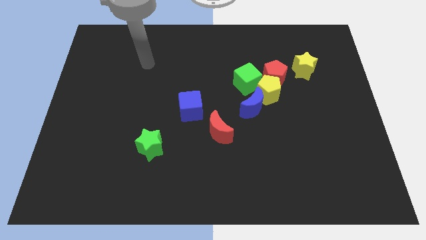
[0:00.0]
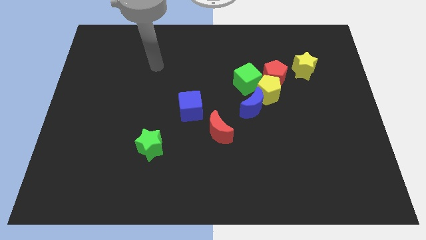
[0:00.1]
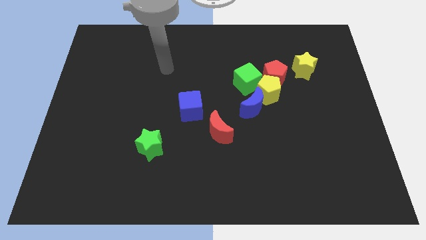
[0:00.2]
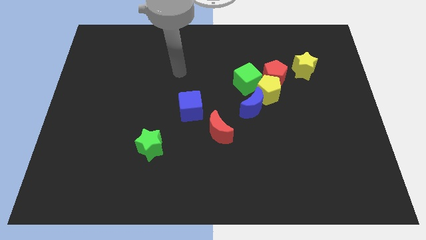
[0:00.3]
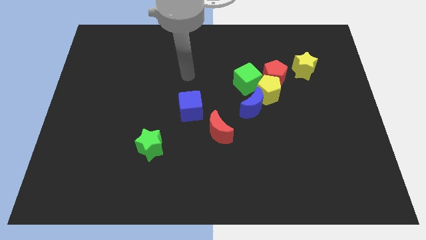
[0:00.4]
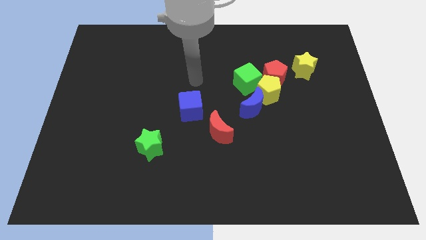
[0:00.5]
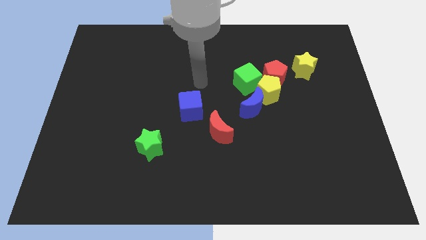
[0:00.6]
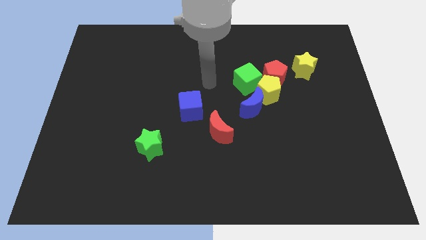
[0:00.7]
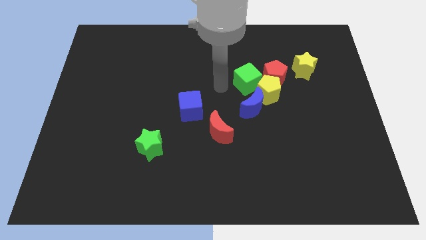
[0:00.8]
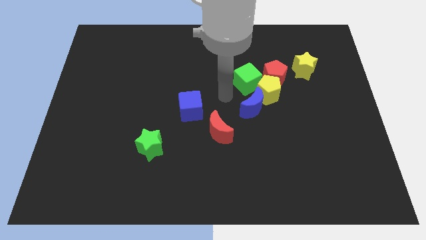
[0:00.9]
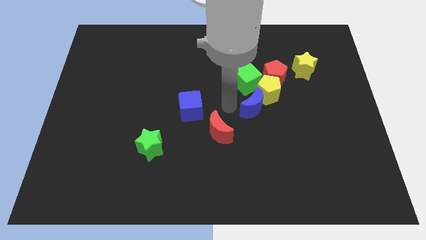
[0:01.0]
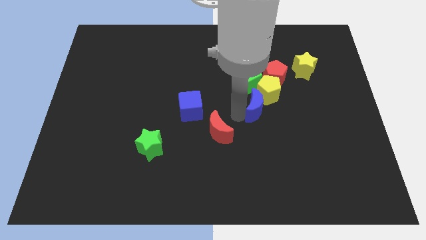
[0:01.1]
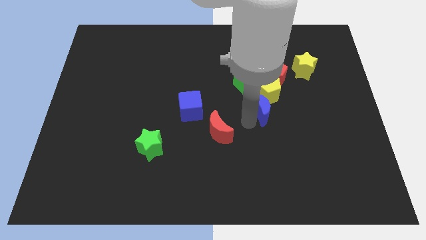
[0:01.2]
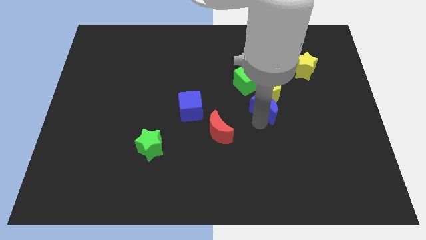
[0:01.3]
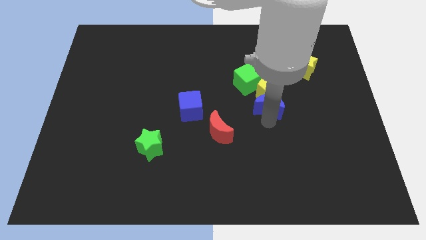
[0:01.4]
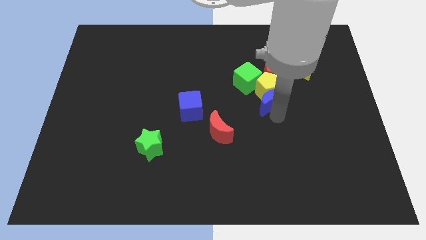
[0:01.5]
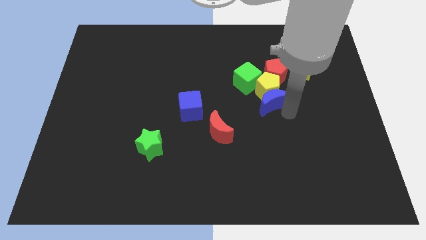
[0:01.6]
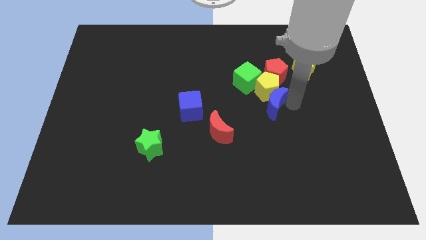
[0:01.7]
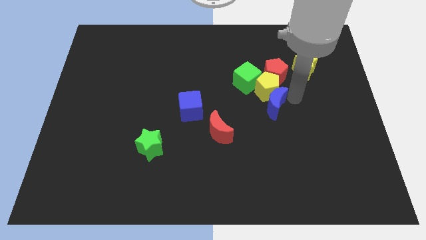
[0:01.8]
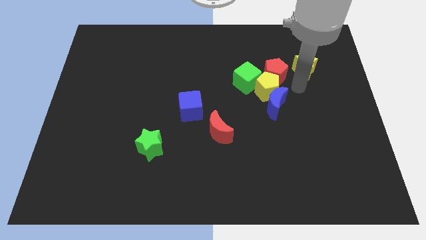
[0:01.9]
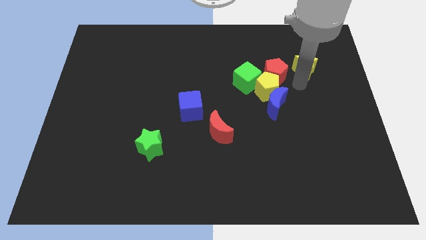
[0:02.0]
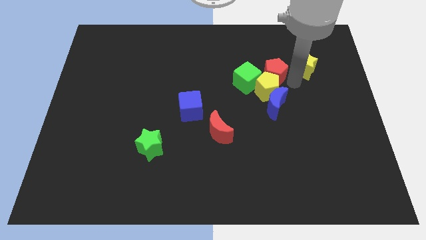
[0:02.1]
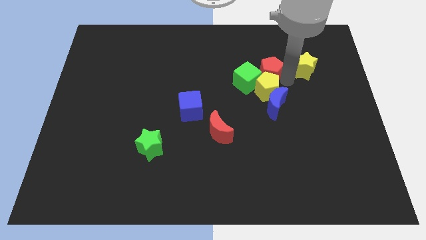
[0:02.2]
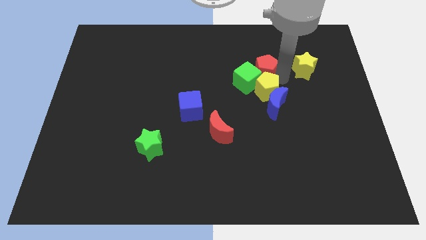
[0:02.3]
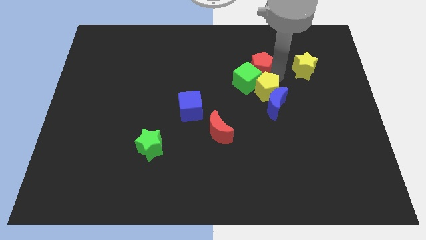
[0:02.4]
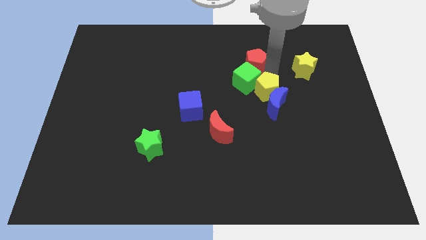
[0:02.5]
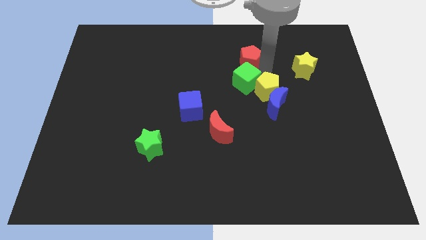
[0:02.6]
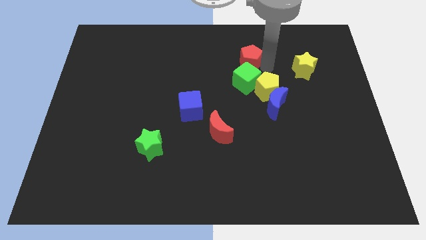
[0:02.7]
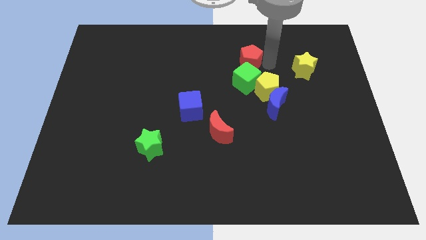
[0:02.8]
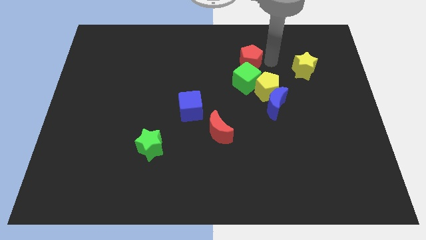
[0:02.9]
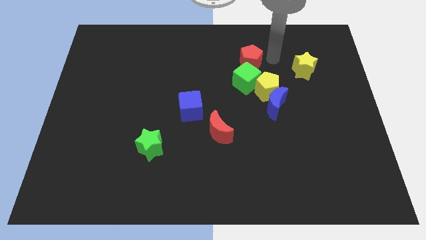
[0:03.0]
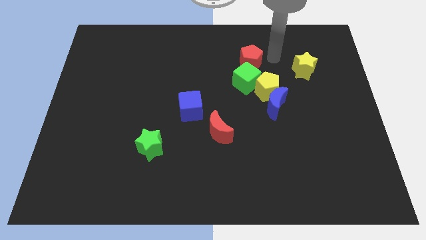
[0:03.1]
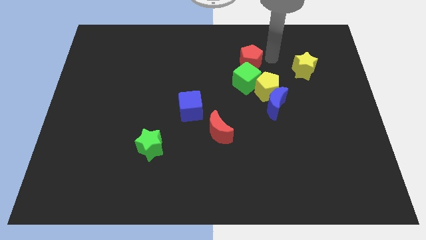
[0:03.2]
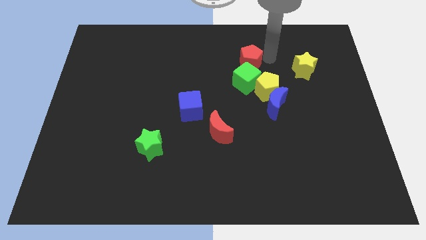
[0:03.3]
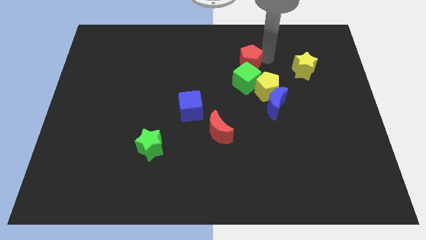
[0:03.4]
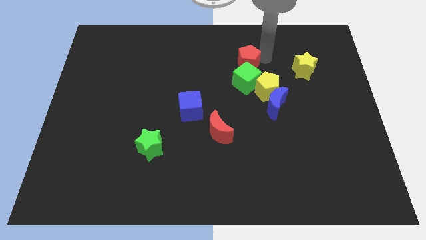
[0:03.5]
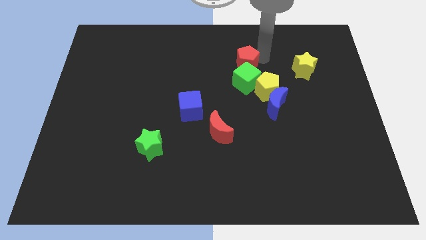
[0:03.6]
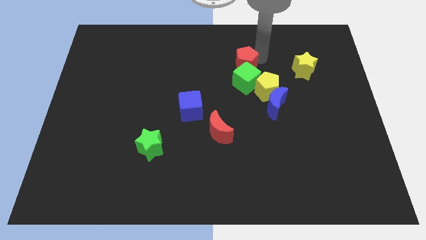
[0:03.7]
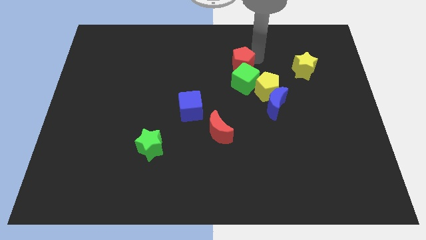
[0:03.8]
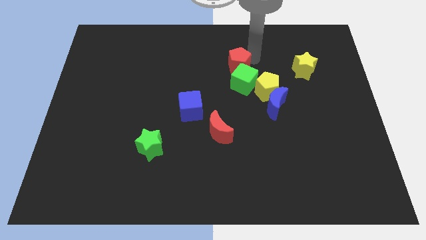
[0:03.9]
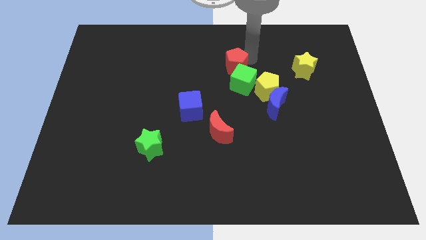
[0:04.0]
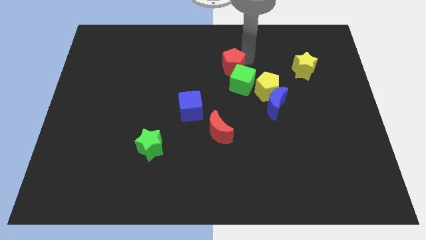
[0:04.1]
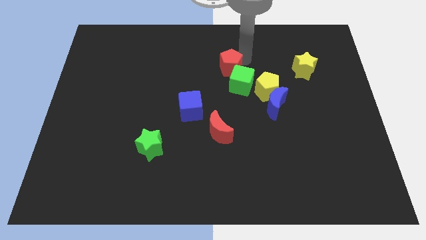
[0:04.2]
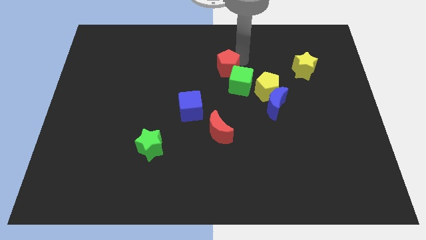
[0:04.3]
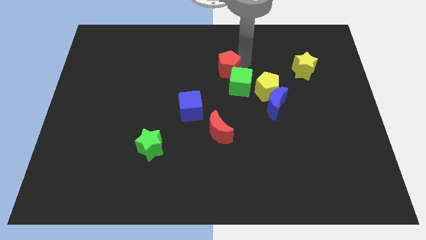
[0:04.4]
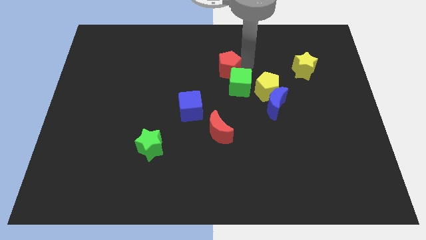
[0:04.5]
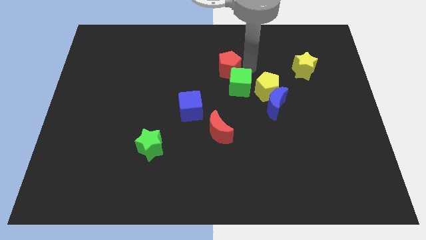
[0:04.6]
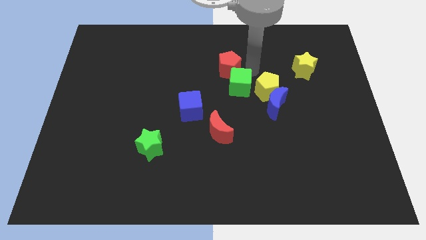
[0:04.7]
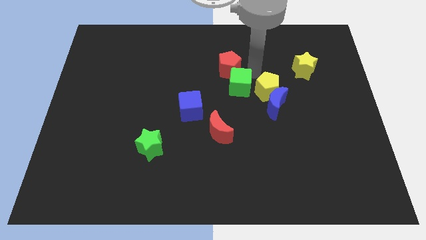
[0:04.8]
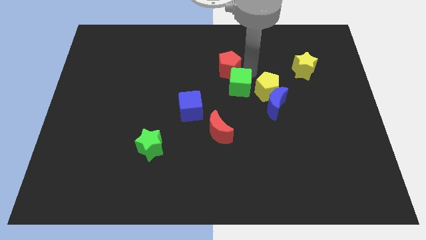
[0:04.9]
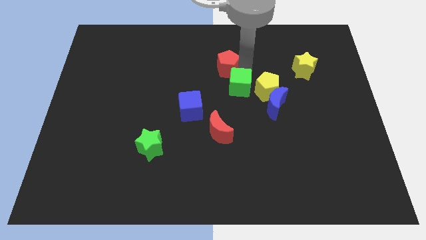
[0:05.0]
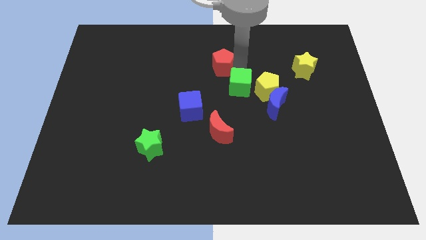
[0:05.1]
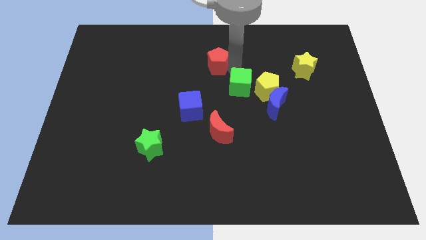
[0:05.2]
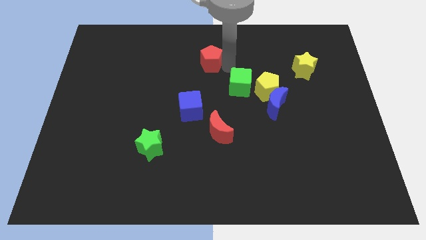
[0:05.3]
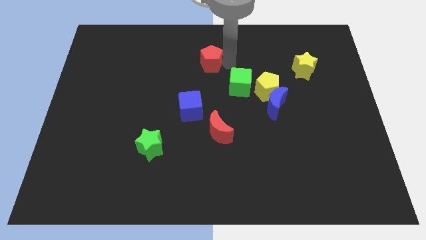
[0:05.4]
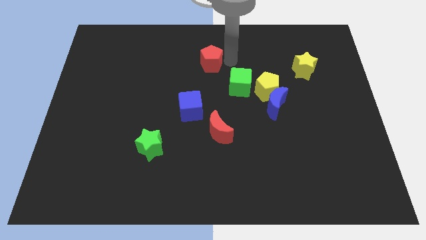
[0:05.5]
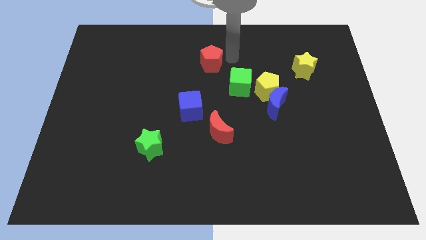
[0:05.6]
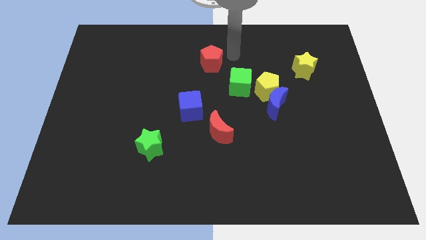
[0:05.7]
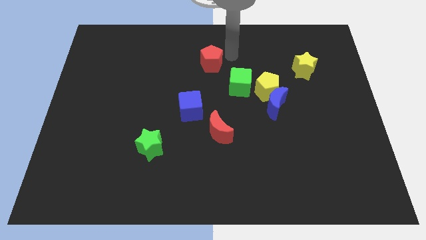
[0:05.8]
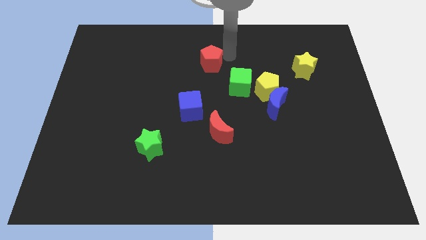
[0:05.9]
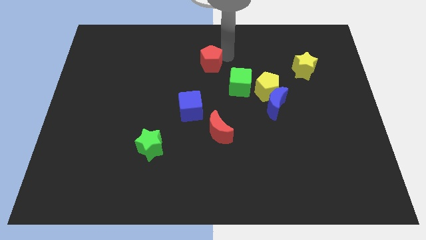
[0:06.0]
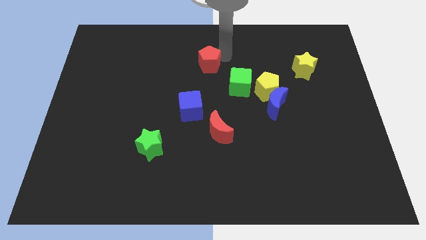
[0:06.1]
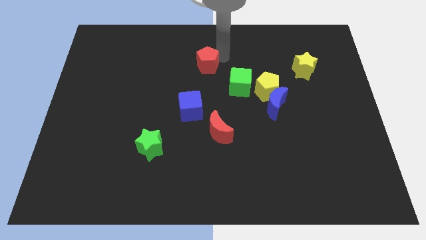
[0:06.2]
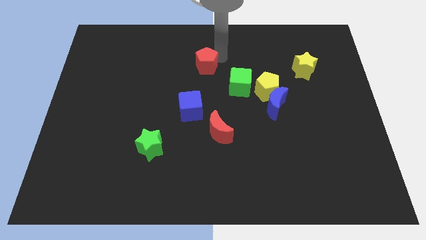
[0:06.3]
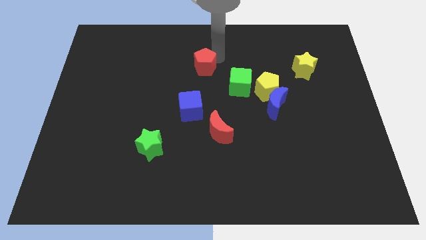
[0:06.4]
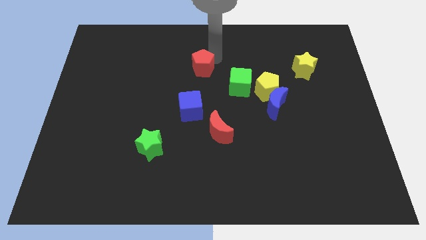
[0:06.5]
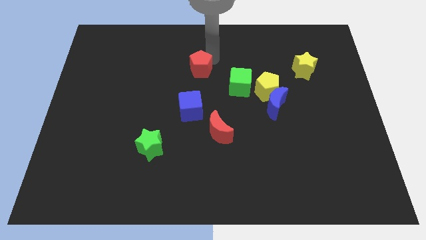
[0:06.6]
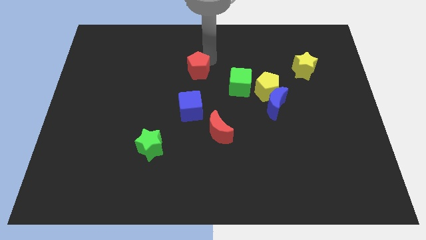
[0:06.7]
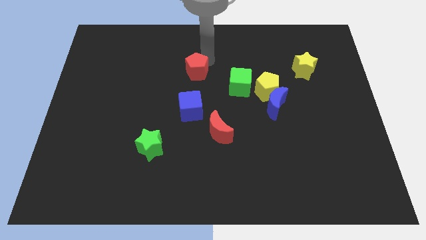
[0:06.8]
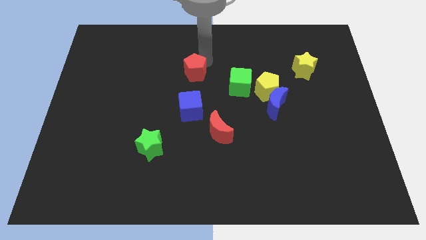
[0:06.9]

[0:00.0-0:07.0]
push the red pentagon to the left

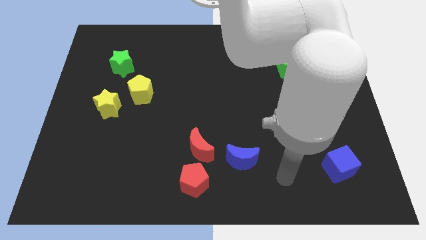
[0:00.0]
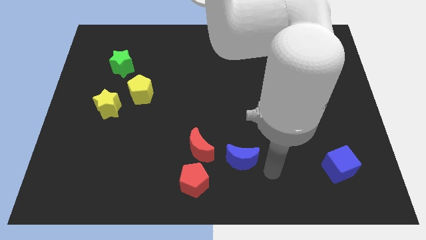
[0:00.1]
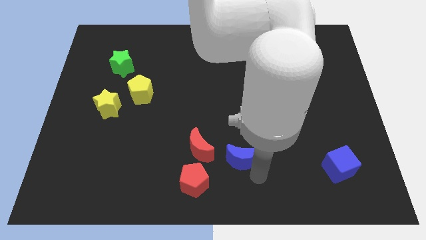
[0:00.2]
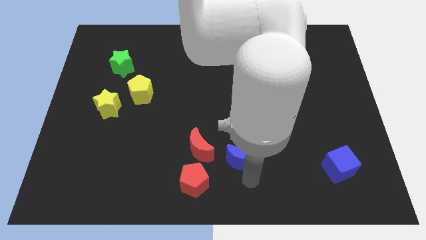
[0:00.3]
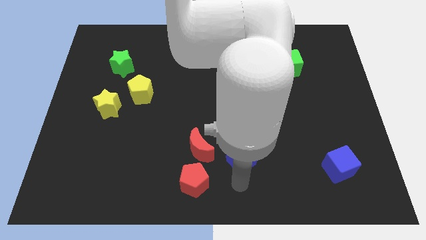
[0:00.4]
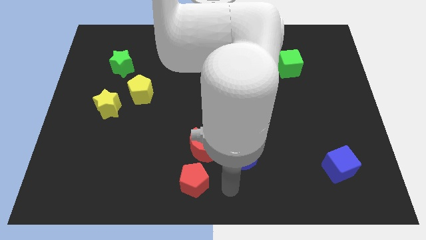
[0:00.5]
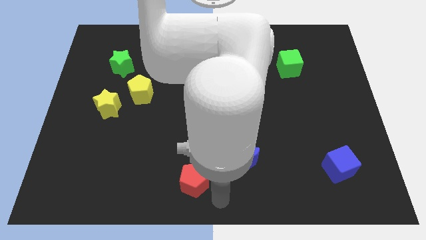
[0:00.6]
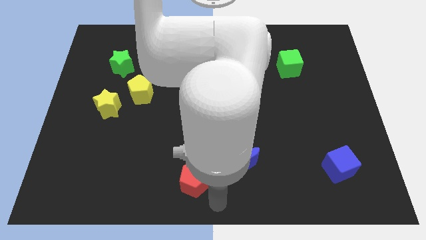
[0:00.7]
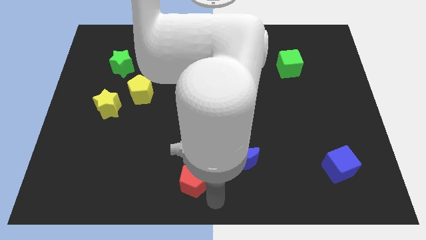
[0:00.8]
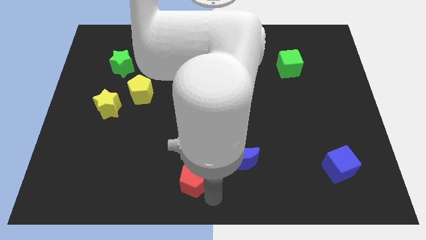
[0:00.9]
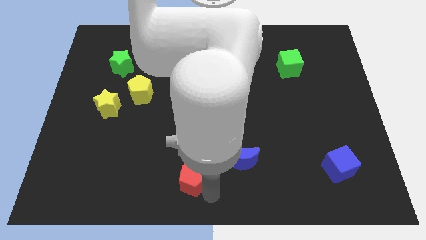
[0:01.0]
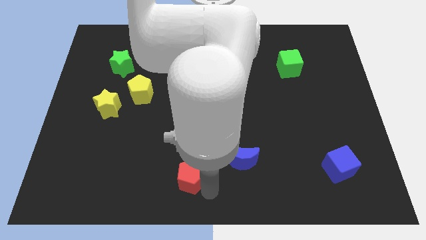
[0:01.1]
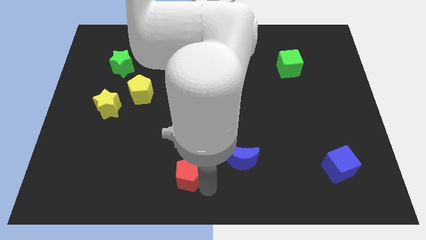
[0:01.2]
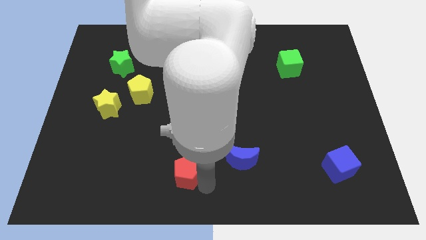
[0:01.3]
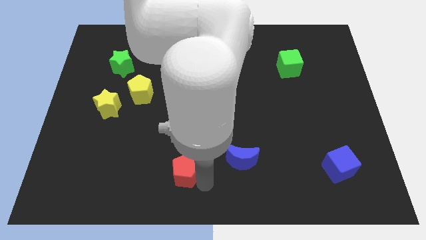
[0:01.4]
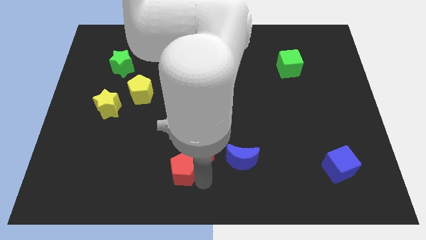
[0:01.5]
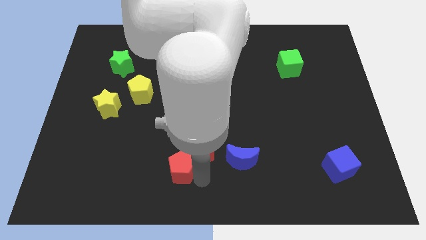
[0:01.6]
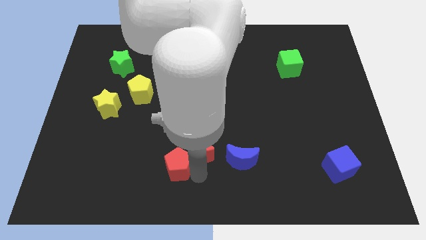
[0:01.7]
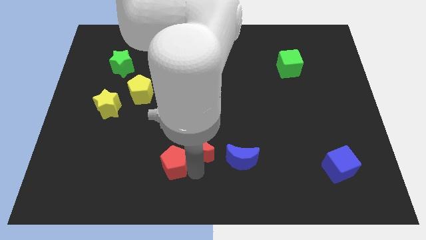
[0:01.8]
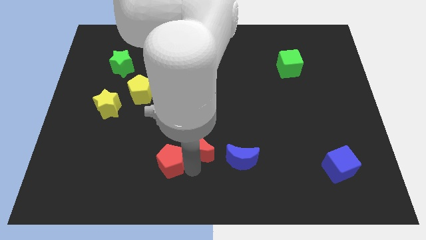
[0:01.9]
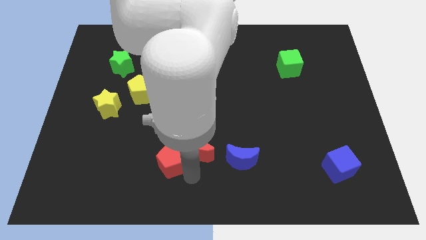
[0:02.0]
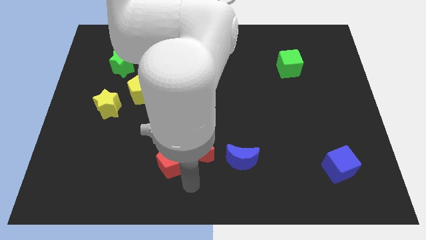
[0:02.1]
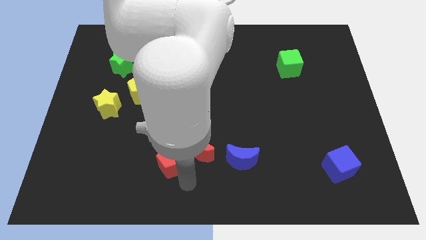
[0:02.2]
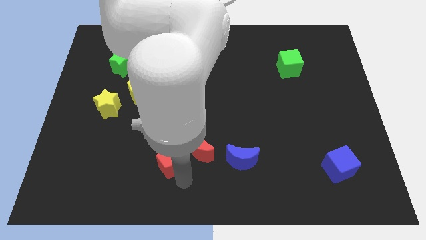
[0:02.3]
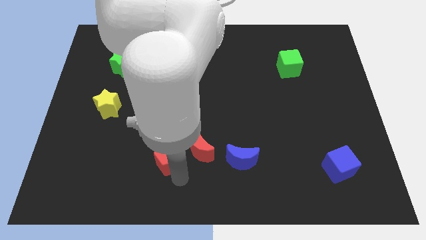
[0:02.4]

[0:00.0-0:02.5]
push the red pentagon up and then left somewhat
